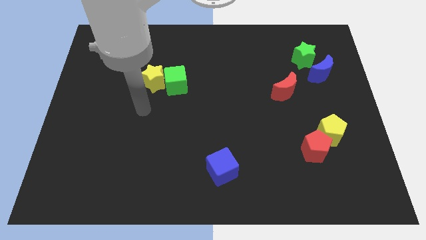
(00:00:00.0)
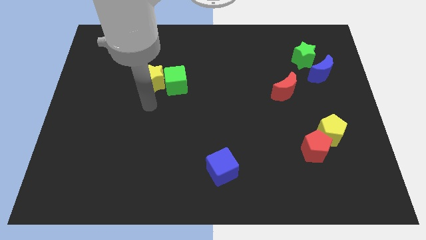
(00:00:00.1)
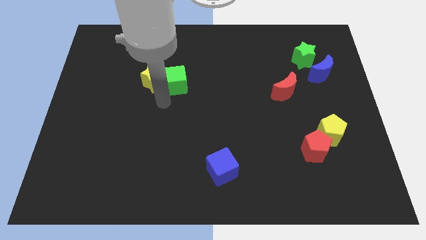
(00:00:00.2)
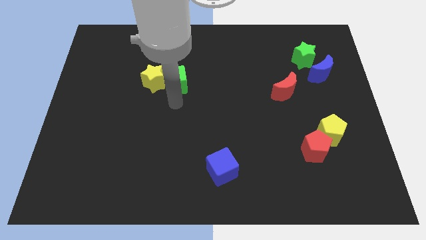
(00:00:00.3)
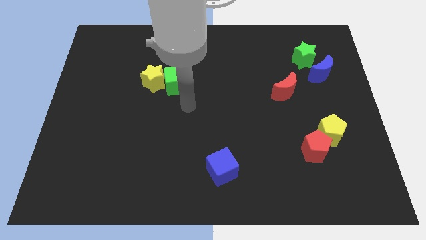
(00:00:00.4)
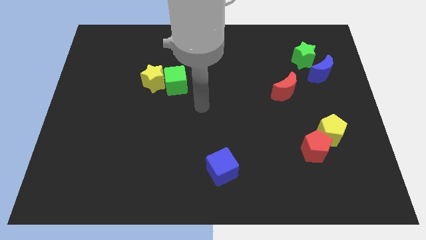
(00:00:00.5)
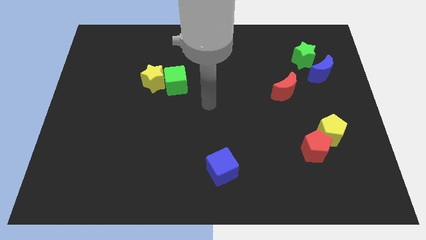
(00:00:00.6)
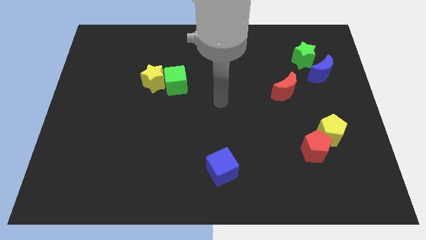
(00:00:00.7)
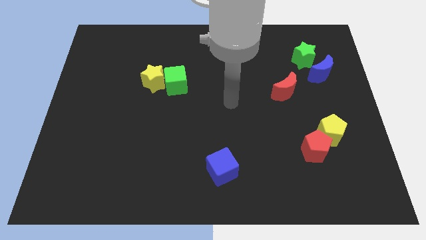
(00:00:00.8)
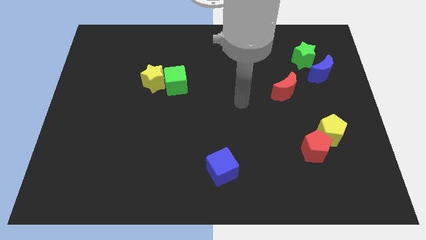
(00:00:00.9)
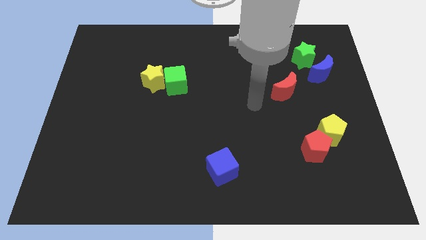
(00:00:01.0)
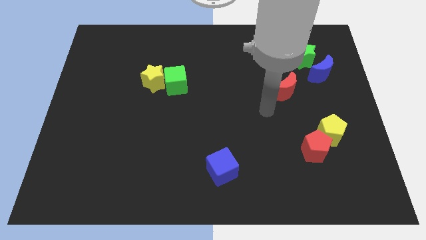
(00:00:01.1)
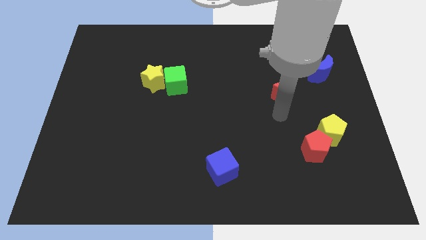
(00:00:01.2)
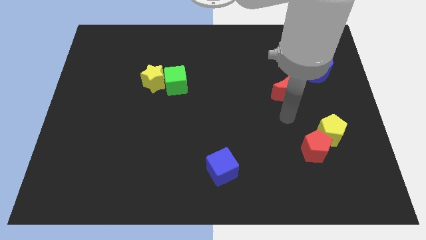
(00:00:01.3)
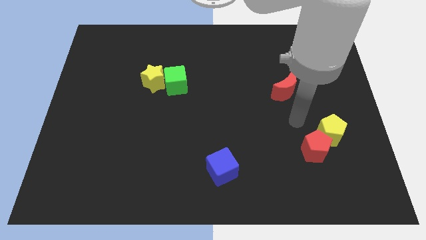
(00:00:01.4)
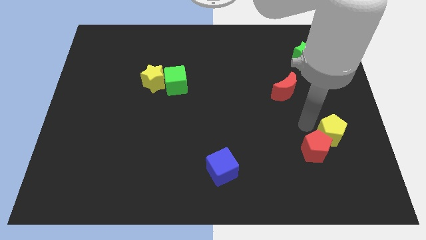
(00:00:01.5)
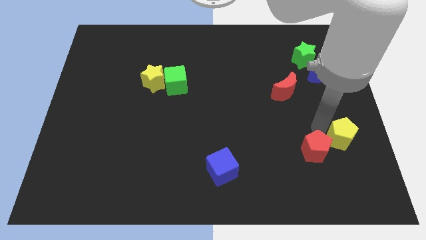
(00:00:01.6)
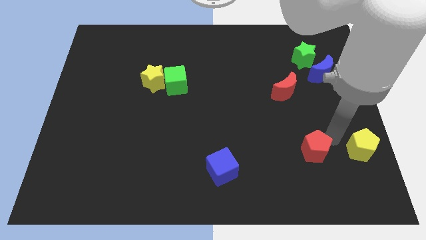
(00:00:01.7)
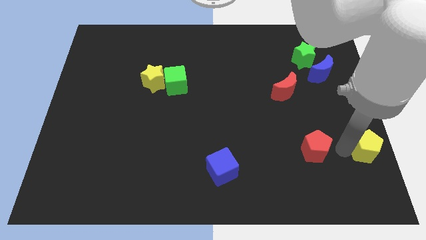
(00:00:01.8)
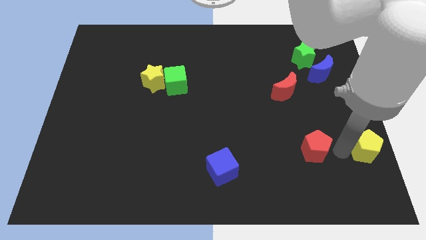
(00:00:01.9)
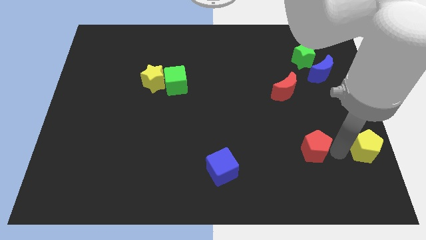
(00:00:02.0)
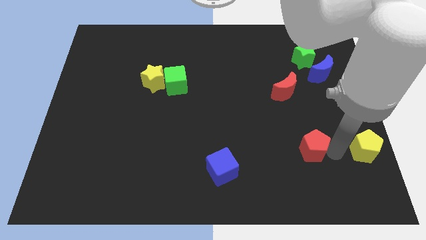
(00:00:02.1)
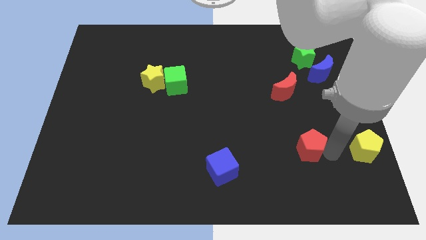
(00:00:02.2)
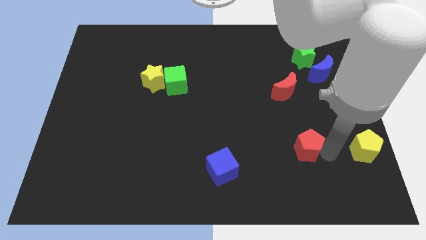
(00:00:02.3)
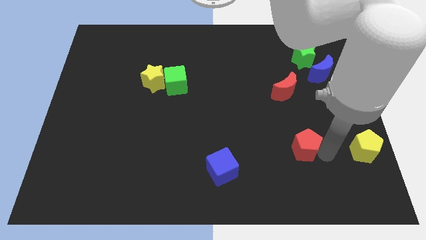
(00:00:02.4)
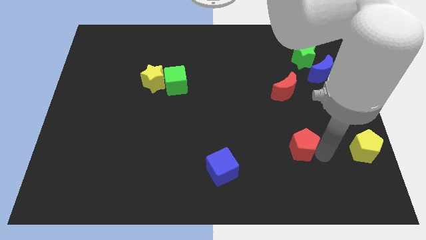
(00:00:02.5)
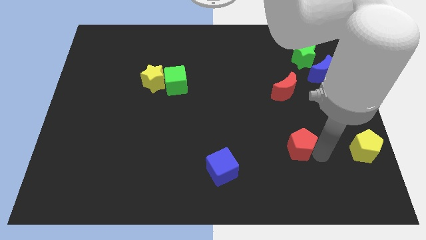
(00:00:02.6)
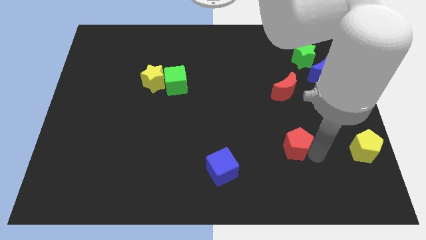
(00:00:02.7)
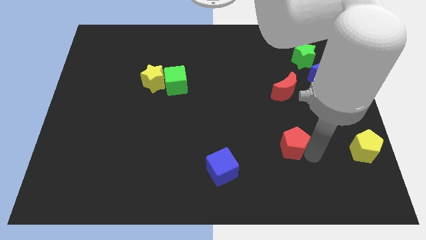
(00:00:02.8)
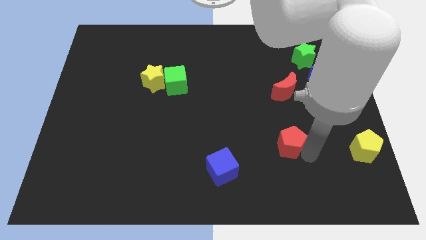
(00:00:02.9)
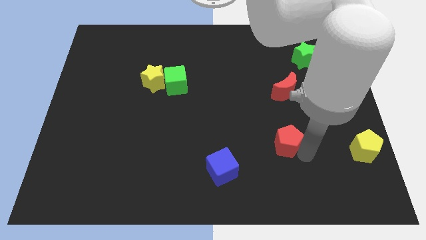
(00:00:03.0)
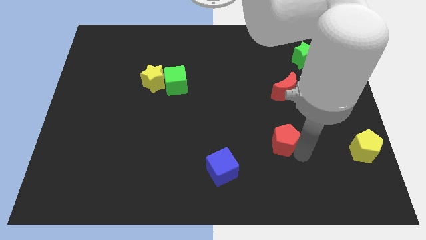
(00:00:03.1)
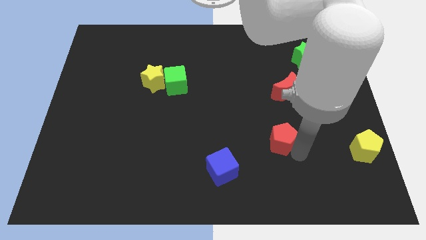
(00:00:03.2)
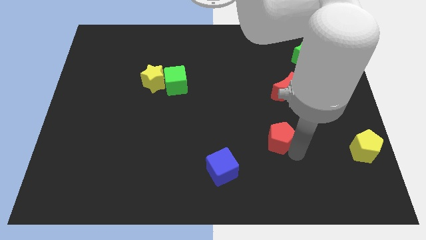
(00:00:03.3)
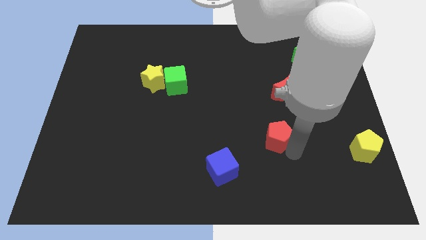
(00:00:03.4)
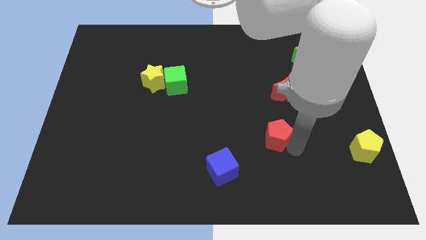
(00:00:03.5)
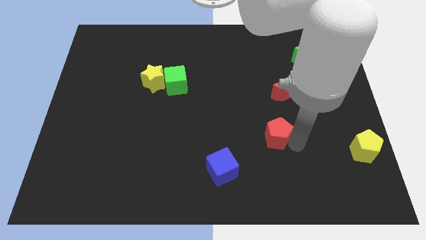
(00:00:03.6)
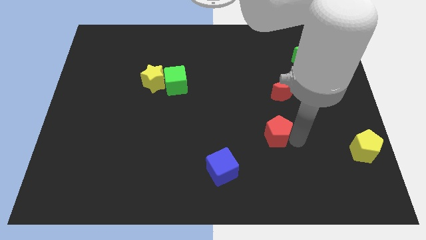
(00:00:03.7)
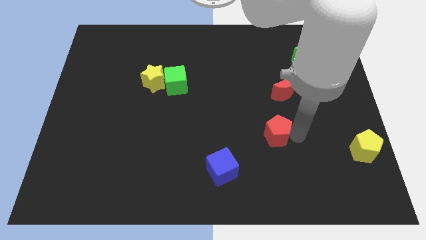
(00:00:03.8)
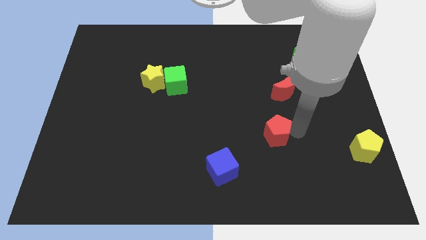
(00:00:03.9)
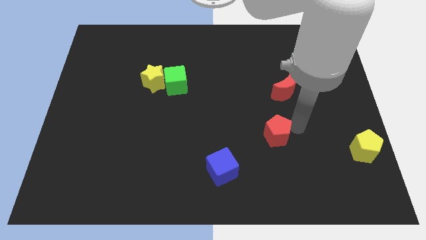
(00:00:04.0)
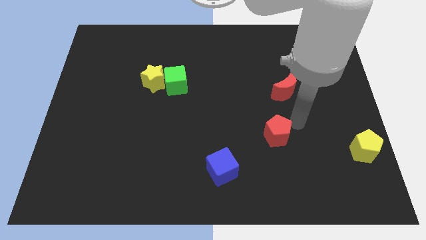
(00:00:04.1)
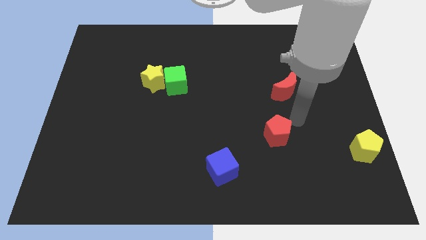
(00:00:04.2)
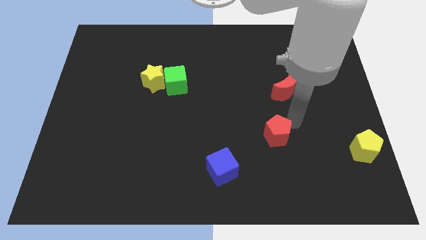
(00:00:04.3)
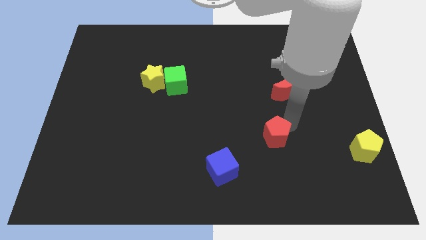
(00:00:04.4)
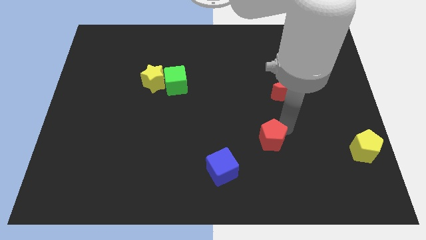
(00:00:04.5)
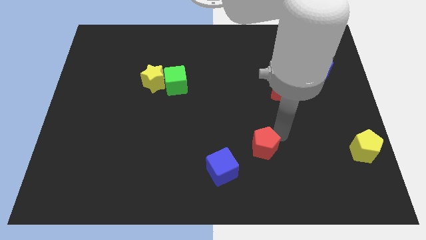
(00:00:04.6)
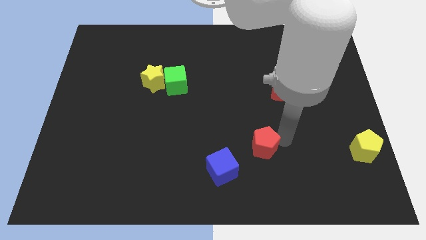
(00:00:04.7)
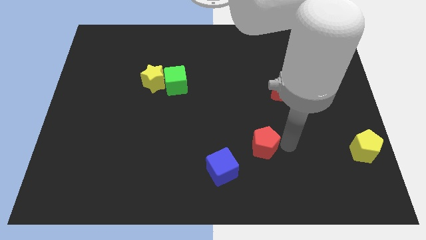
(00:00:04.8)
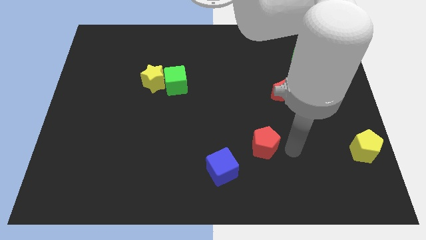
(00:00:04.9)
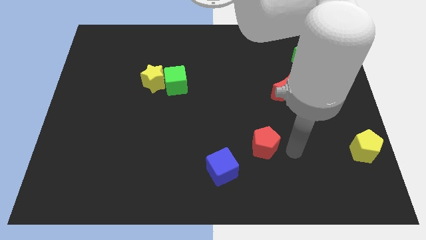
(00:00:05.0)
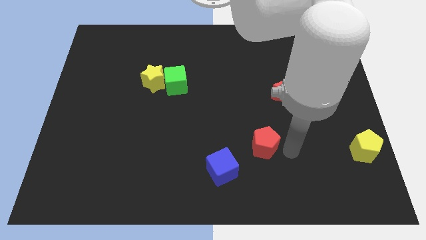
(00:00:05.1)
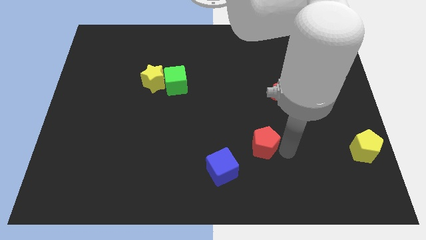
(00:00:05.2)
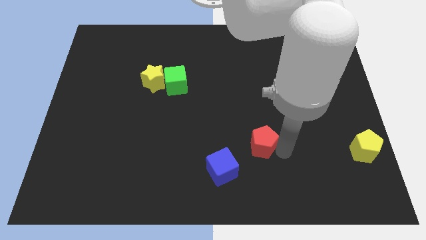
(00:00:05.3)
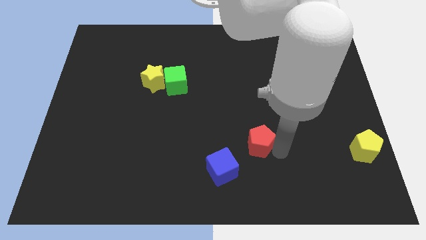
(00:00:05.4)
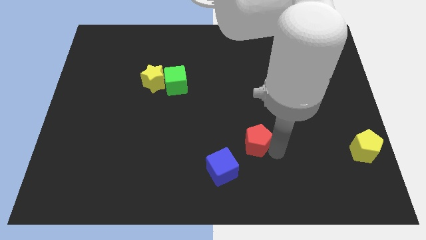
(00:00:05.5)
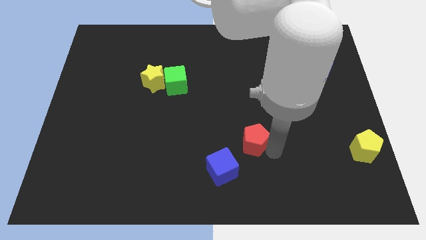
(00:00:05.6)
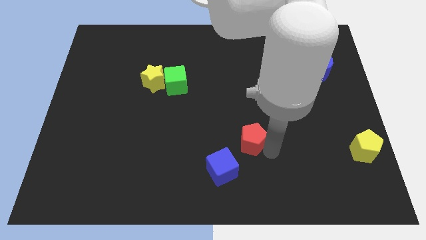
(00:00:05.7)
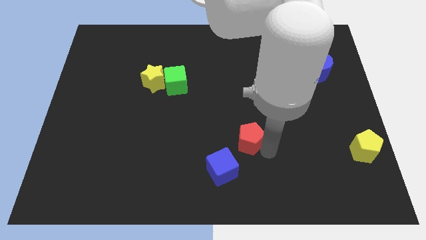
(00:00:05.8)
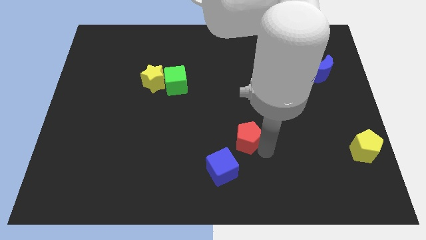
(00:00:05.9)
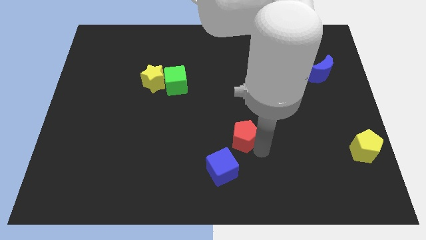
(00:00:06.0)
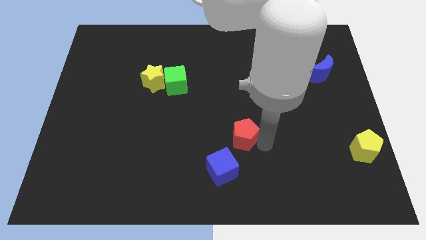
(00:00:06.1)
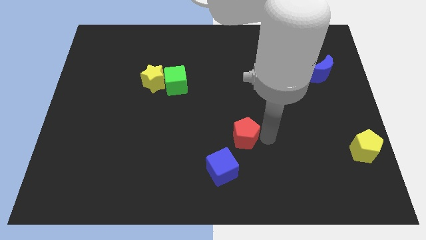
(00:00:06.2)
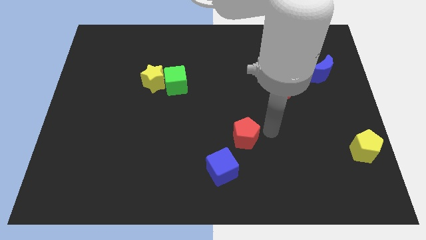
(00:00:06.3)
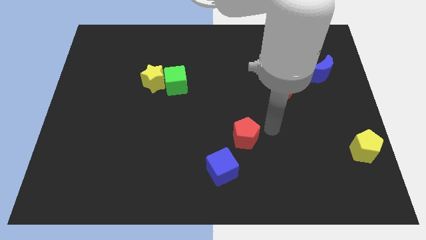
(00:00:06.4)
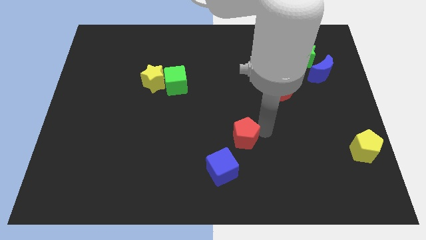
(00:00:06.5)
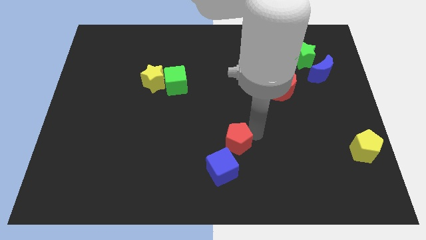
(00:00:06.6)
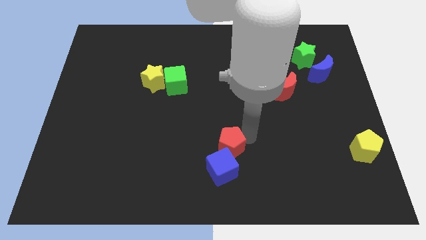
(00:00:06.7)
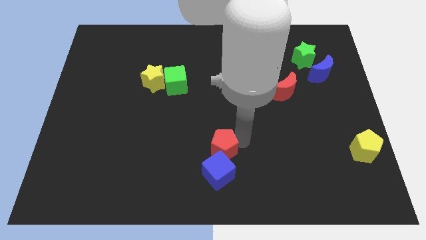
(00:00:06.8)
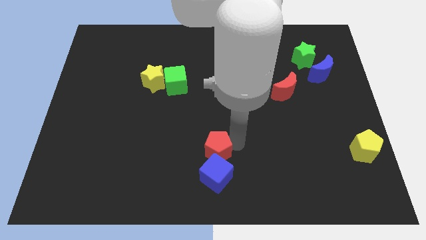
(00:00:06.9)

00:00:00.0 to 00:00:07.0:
slide the red pentagon left

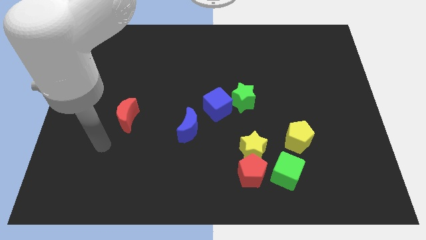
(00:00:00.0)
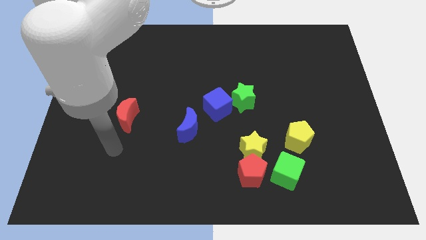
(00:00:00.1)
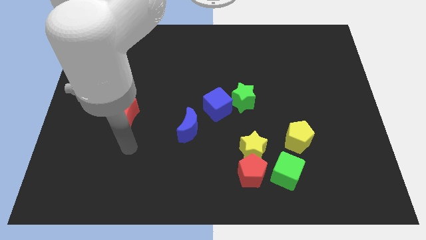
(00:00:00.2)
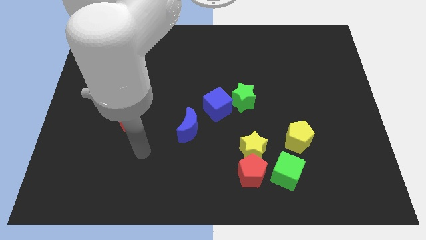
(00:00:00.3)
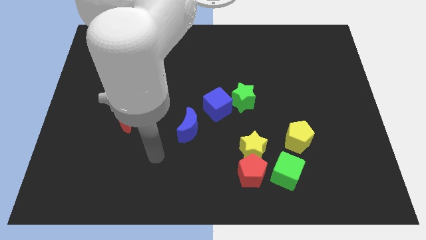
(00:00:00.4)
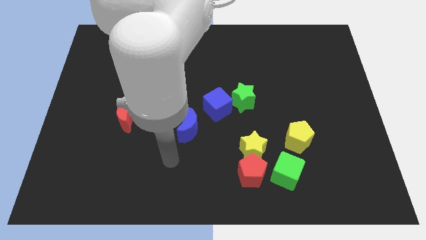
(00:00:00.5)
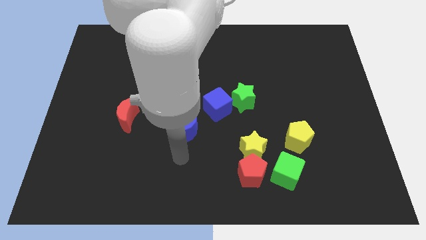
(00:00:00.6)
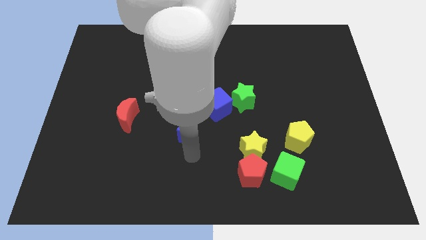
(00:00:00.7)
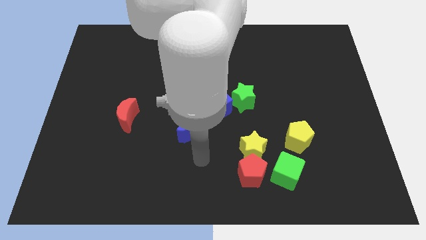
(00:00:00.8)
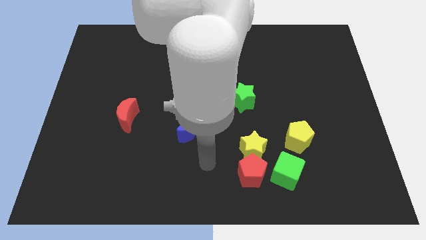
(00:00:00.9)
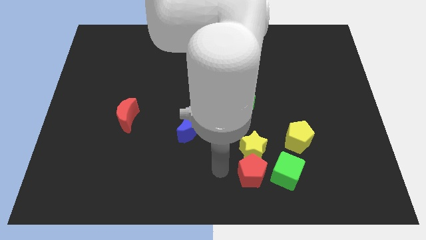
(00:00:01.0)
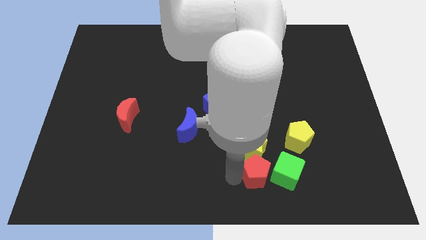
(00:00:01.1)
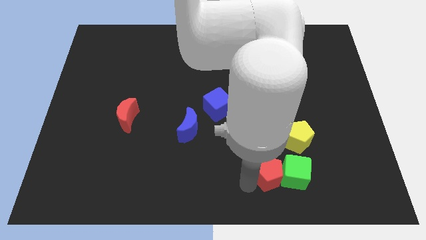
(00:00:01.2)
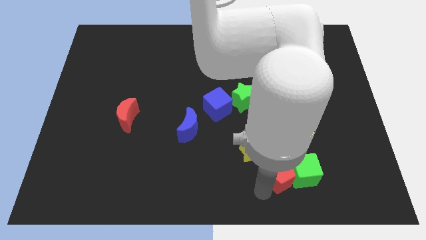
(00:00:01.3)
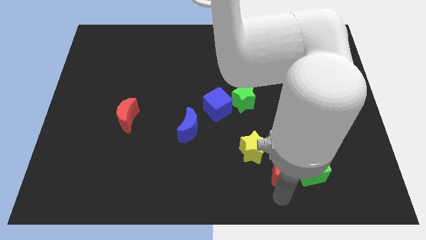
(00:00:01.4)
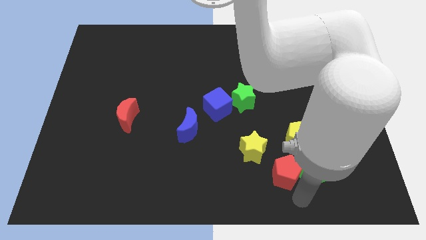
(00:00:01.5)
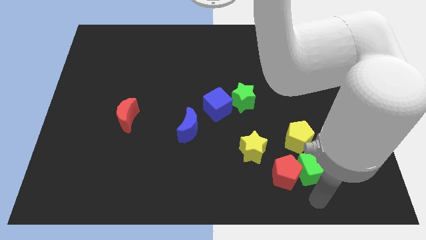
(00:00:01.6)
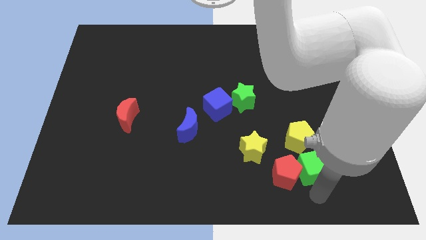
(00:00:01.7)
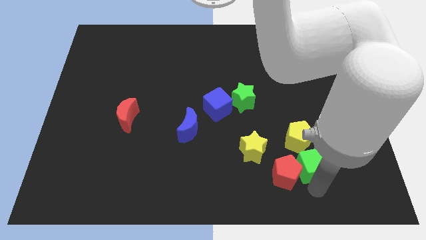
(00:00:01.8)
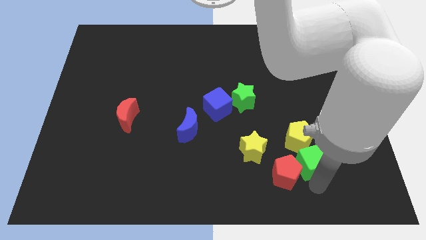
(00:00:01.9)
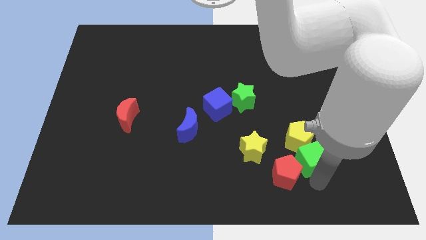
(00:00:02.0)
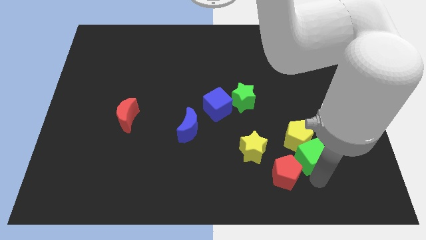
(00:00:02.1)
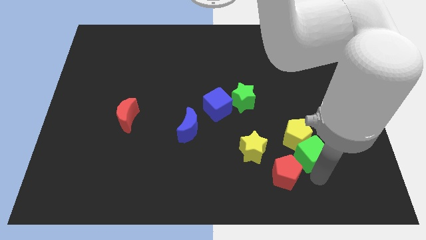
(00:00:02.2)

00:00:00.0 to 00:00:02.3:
slightly move the green cube upwards and then to the right
